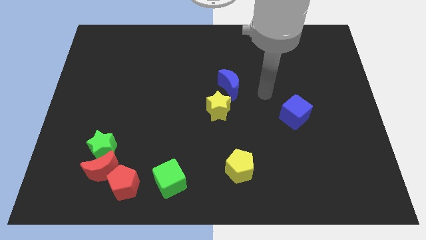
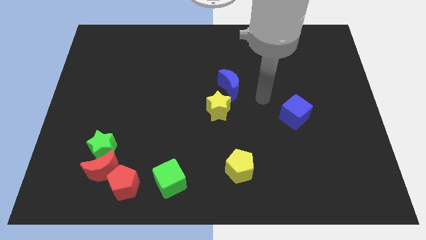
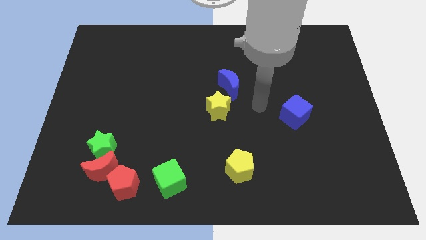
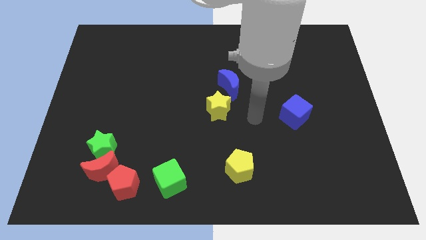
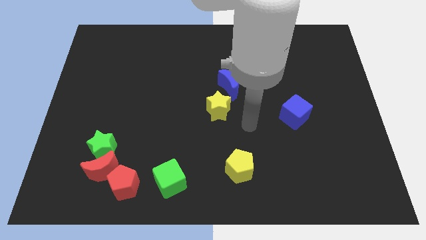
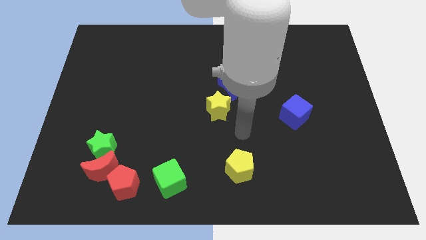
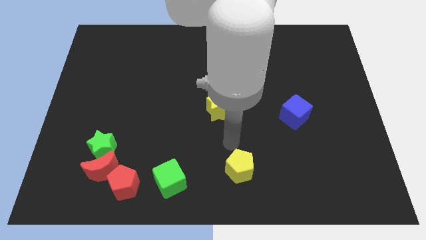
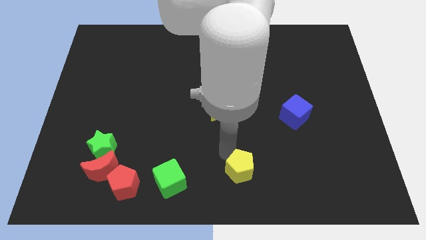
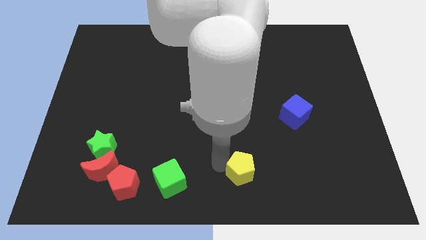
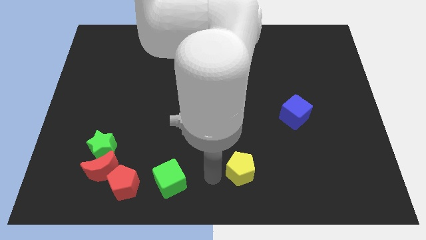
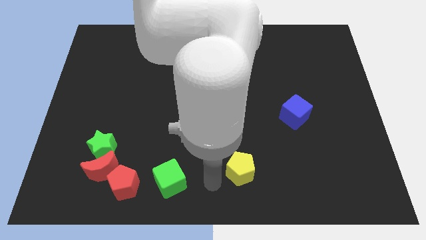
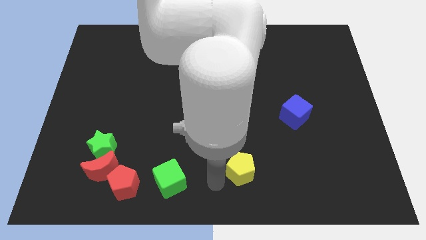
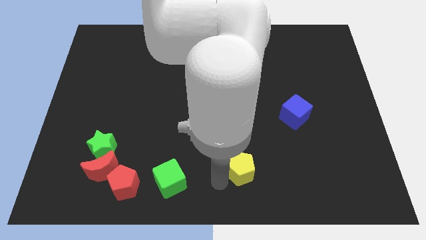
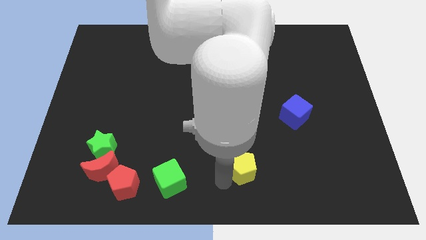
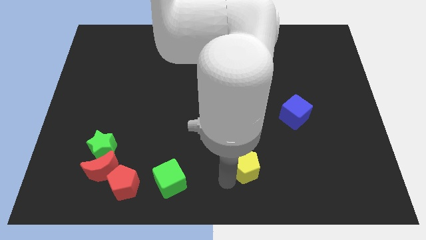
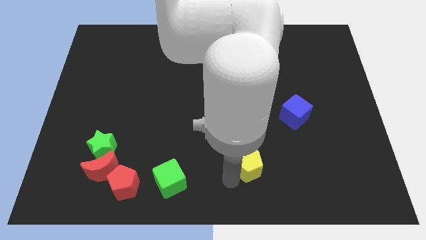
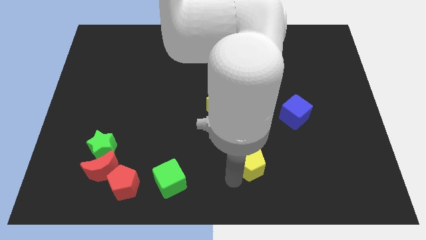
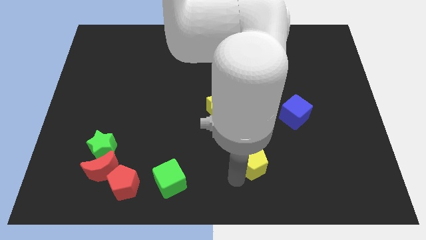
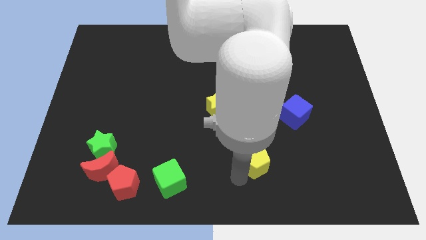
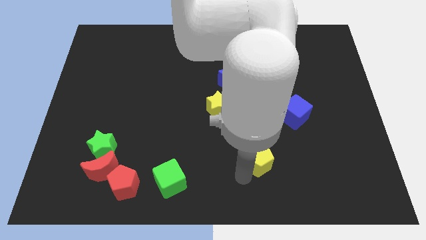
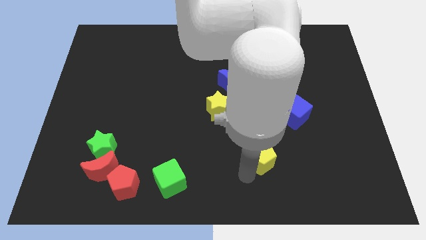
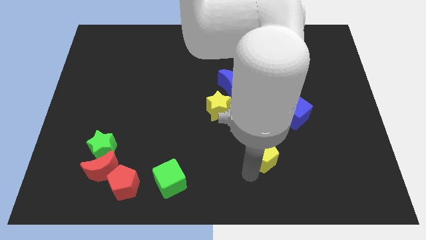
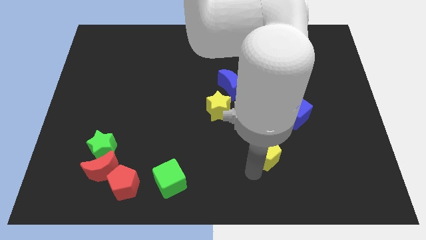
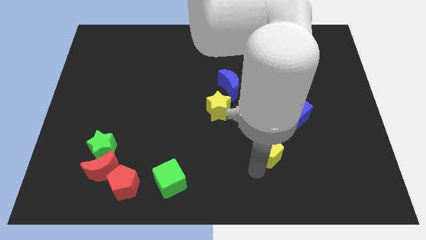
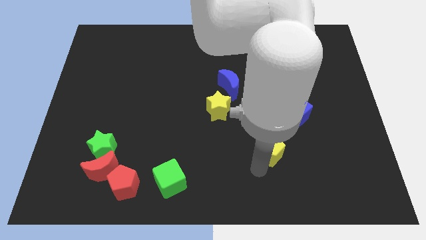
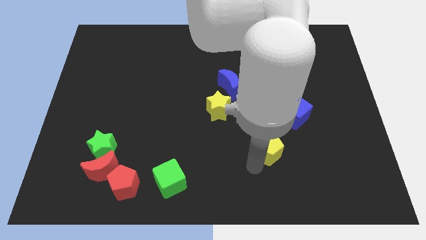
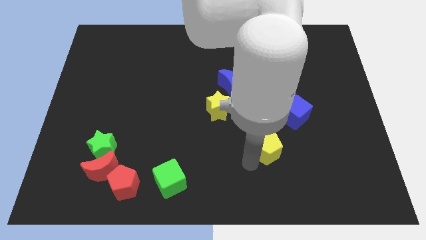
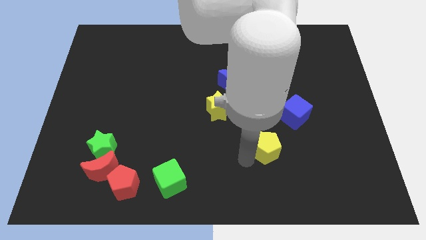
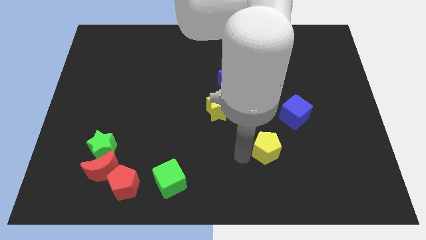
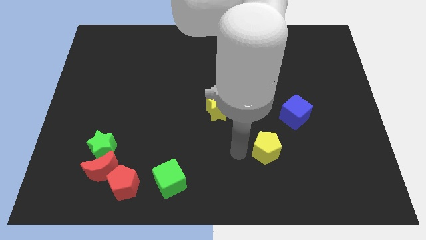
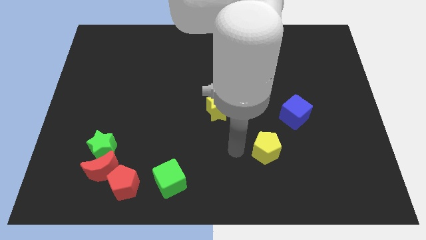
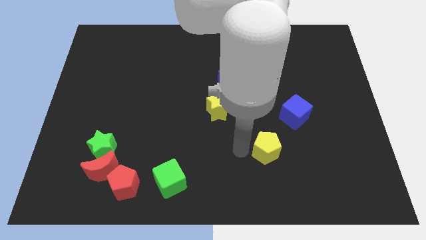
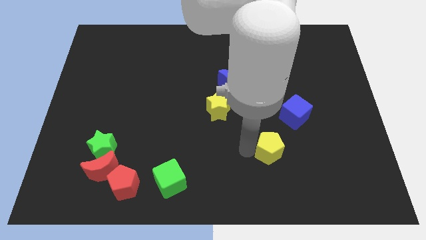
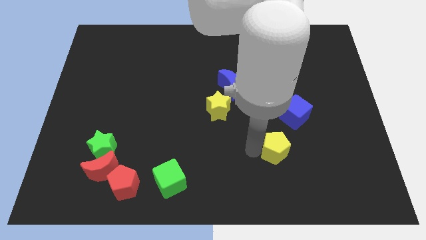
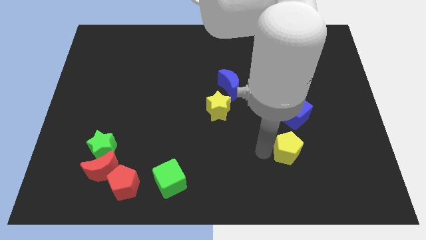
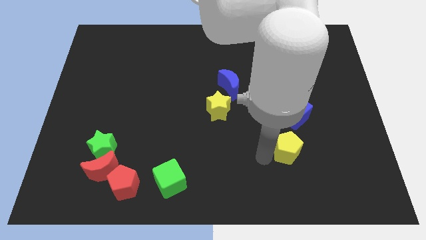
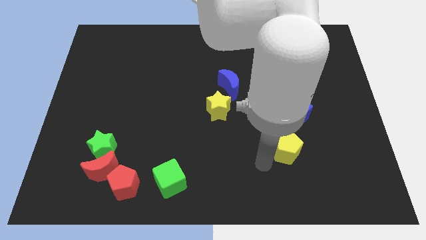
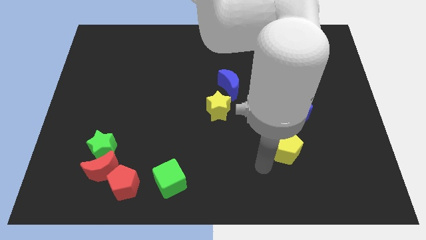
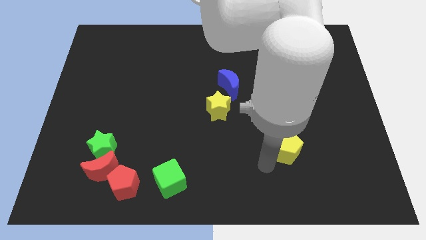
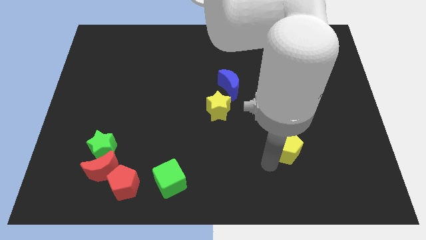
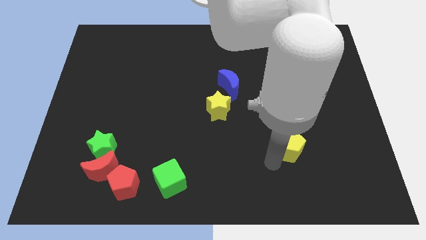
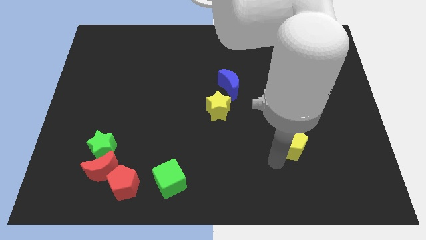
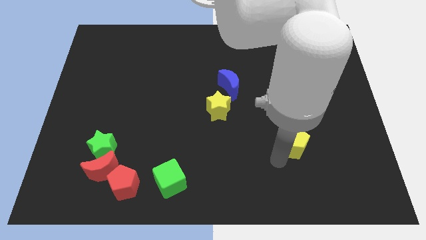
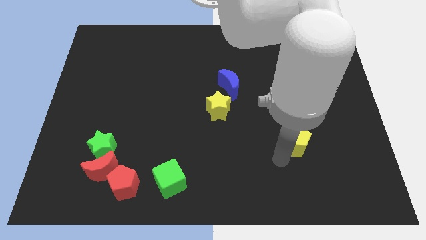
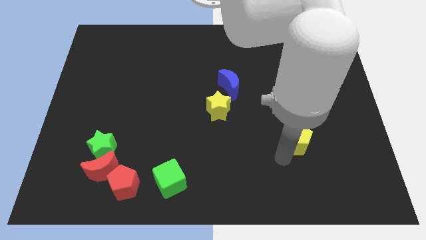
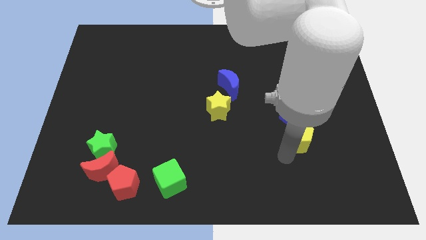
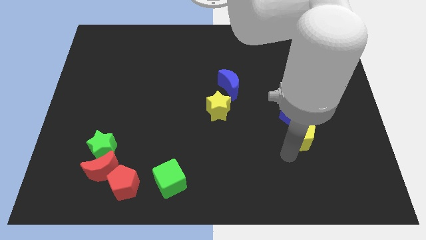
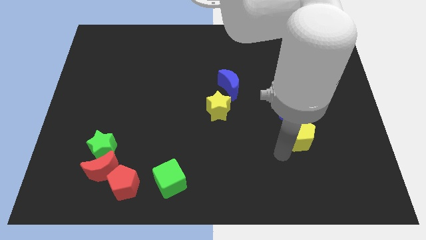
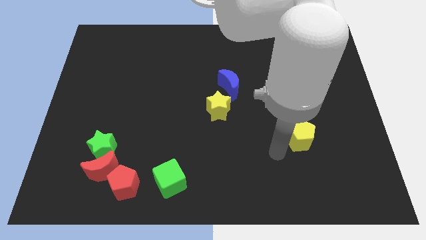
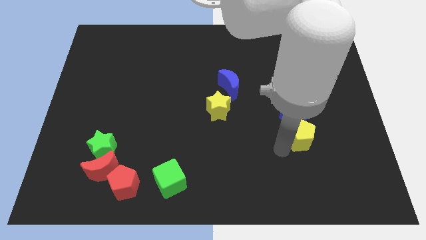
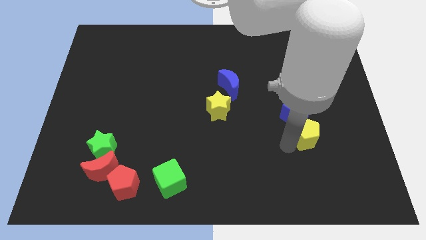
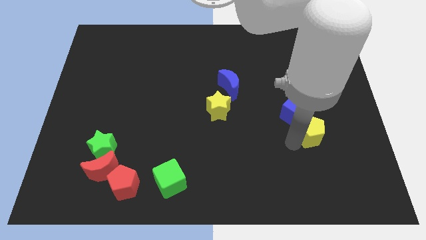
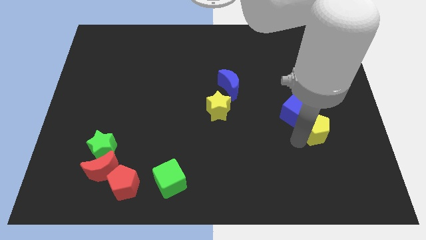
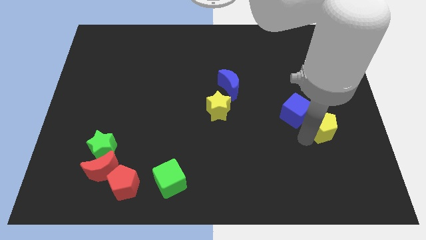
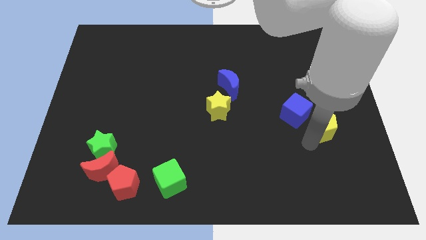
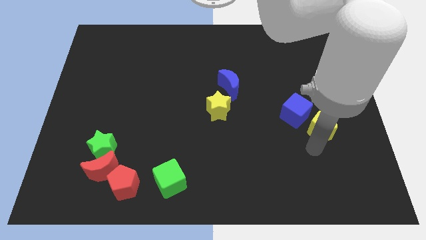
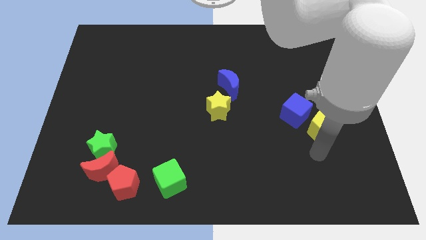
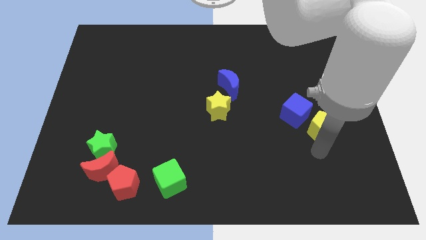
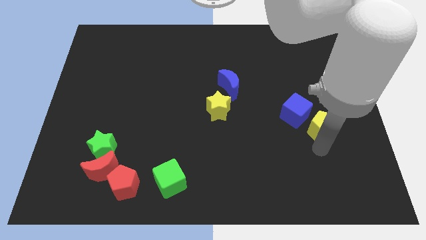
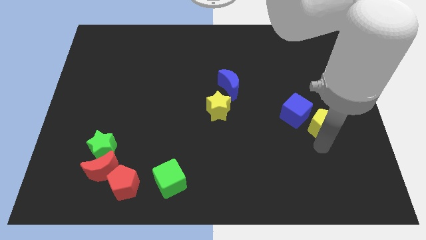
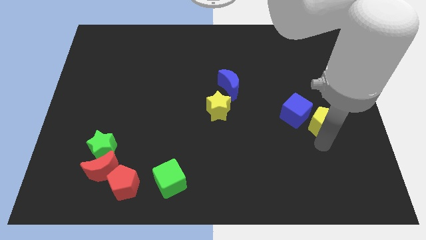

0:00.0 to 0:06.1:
move the yellow pentagon diagonally up and to the right

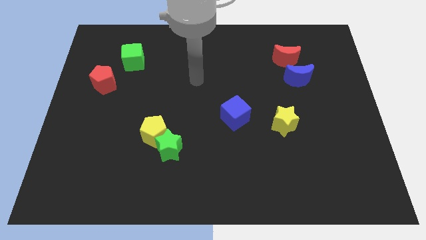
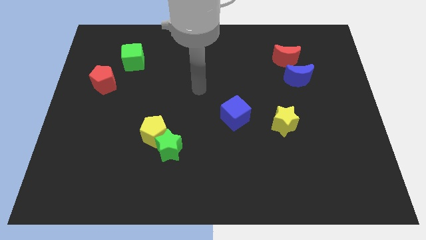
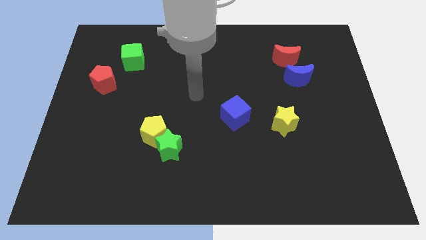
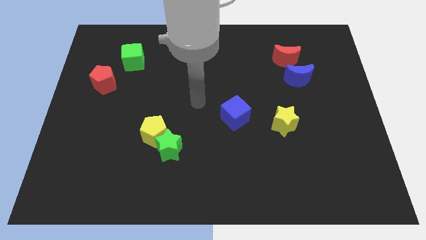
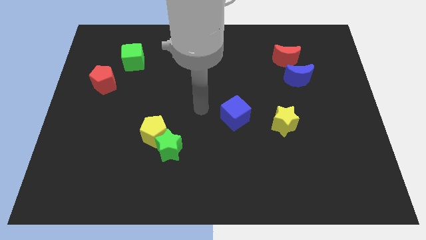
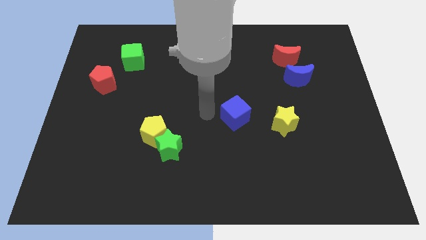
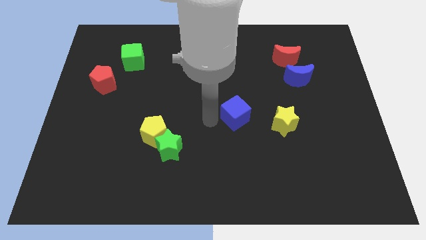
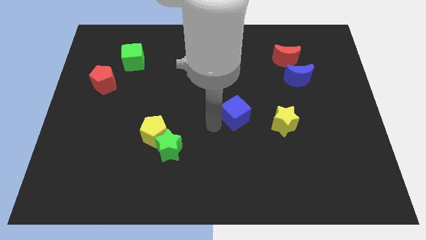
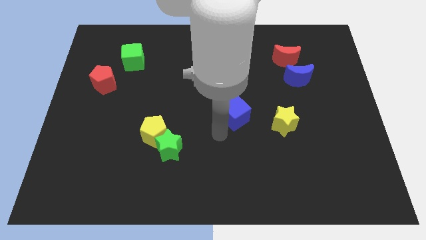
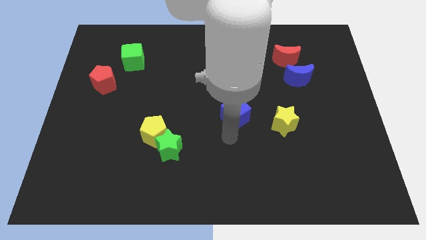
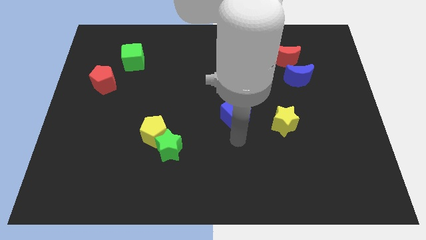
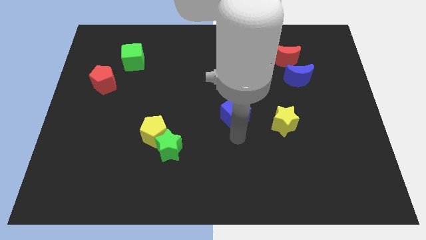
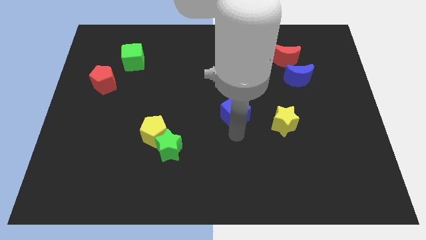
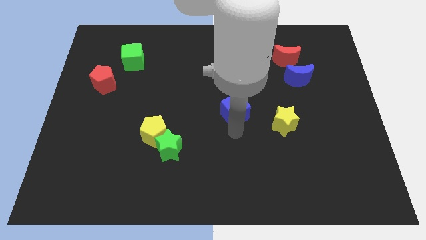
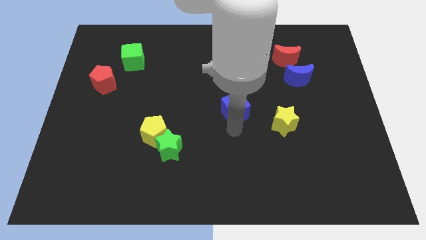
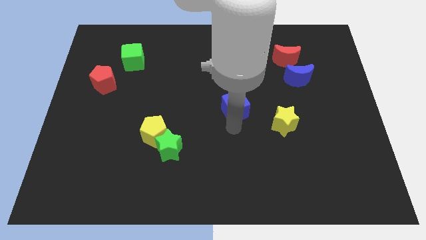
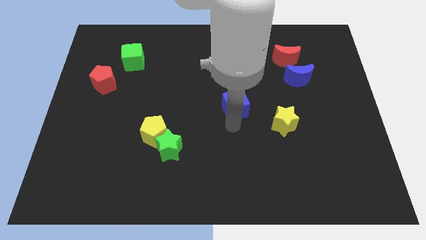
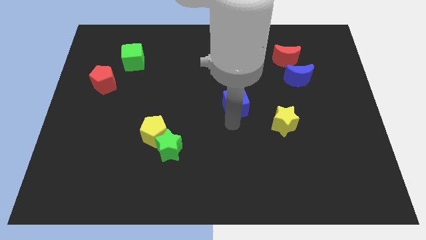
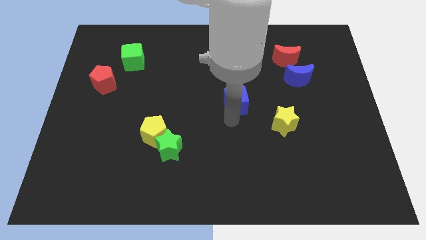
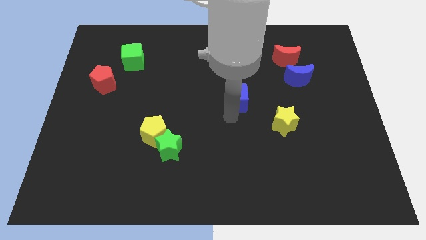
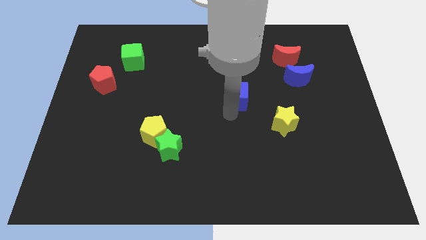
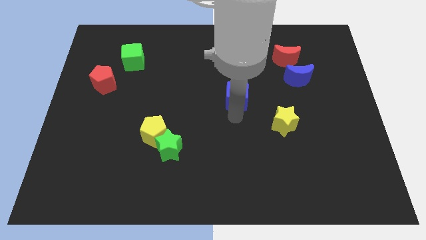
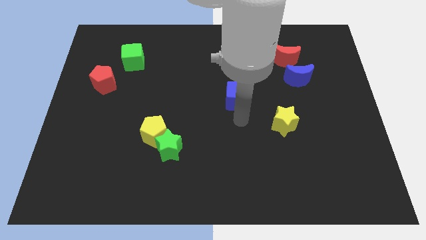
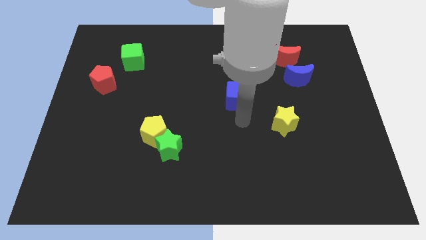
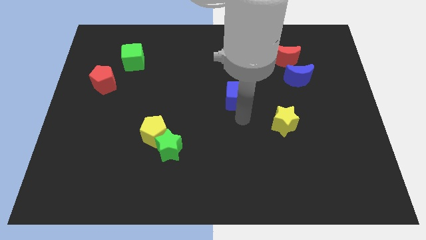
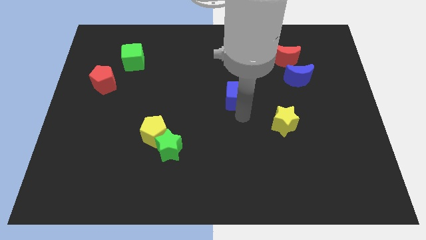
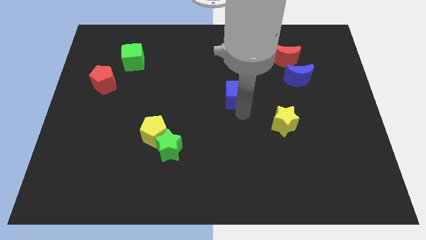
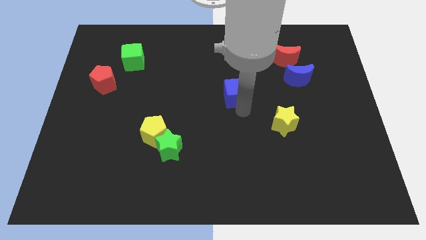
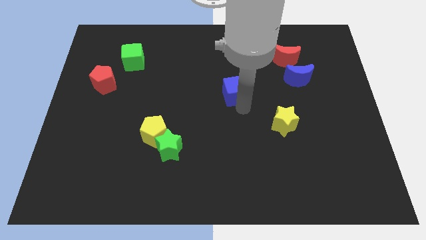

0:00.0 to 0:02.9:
move the blue cube up a little
